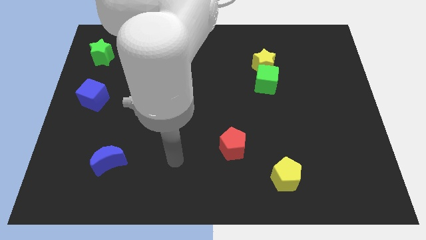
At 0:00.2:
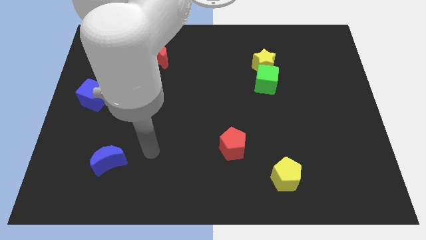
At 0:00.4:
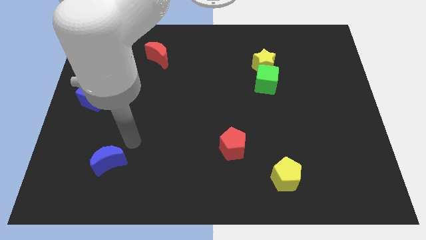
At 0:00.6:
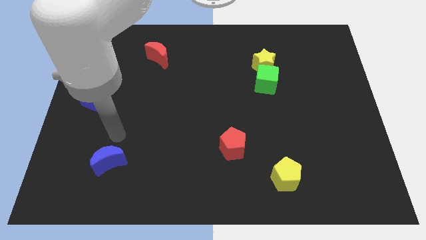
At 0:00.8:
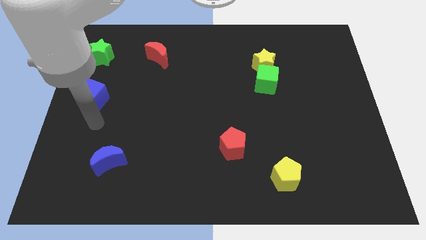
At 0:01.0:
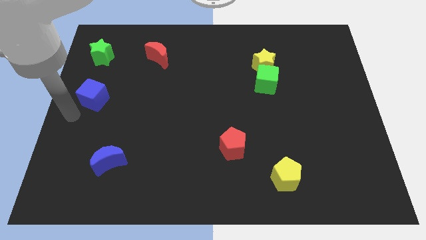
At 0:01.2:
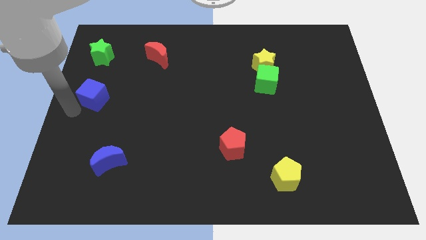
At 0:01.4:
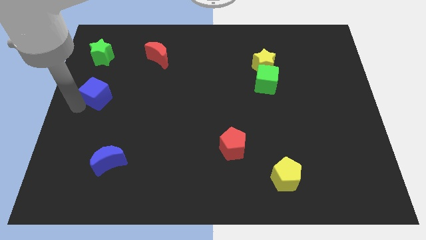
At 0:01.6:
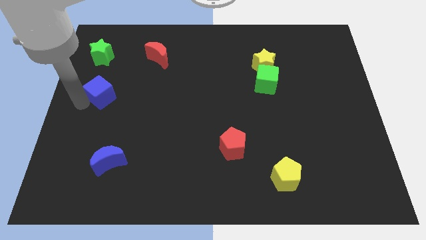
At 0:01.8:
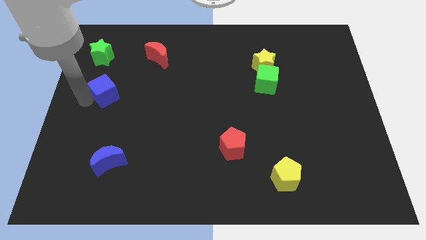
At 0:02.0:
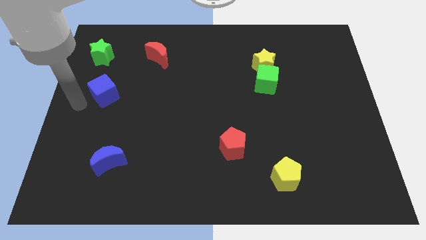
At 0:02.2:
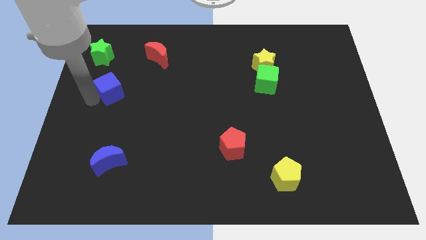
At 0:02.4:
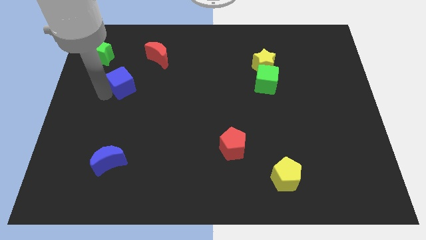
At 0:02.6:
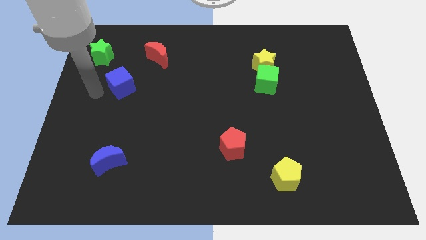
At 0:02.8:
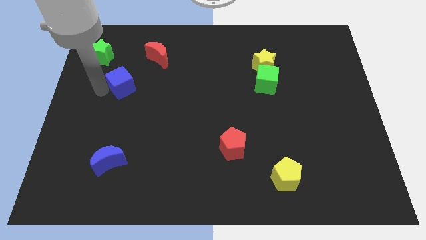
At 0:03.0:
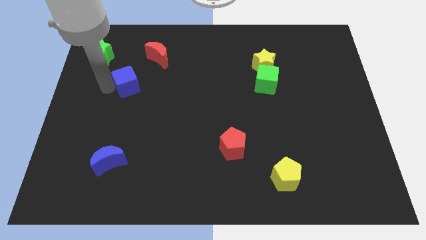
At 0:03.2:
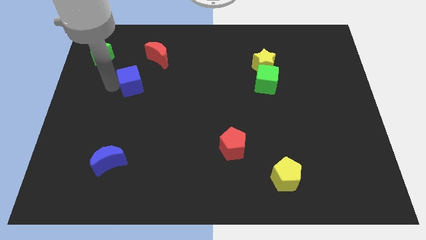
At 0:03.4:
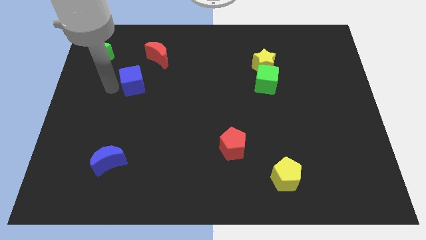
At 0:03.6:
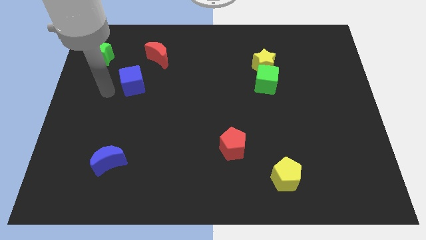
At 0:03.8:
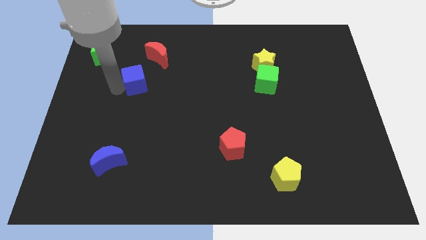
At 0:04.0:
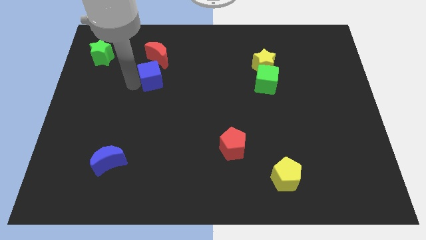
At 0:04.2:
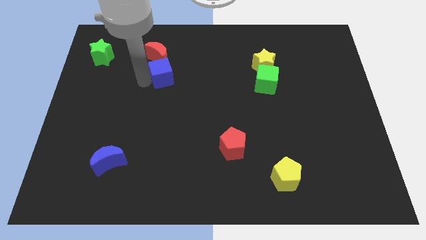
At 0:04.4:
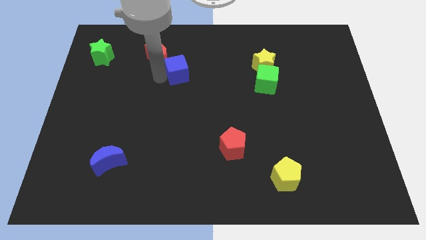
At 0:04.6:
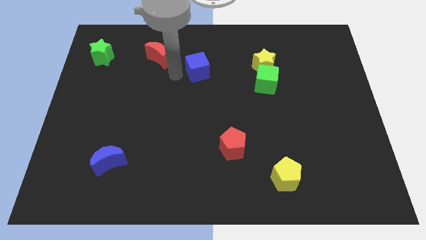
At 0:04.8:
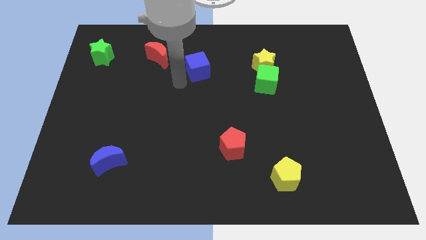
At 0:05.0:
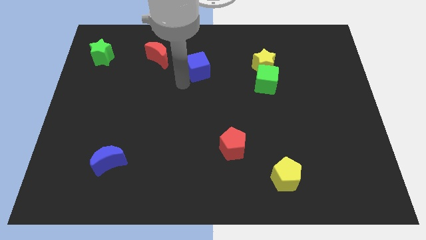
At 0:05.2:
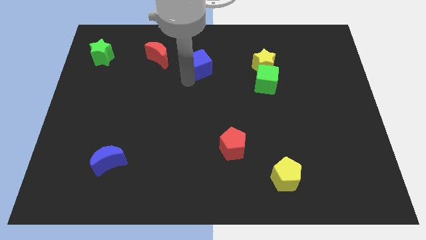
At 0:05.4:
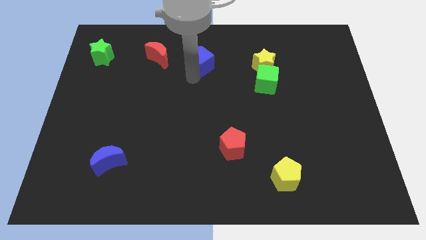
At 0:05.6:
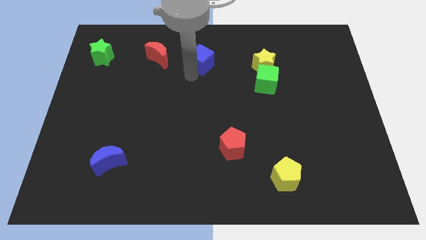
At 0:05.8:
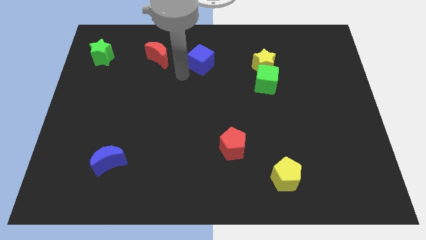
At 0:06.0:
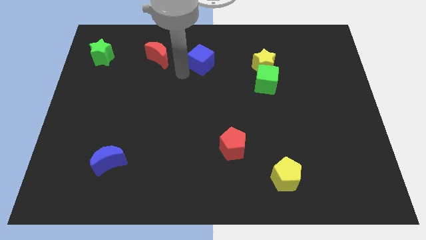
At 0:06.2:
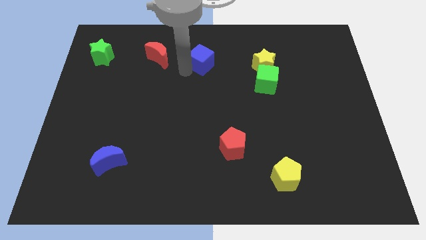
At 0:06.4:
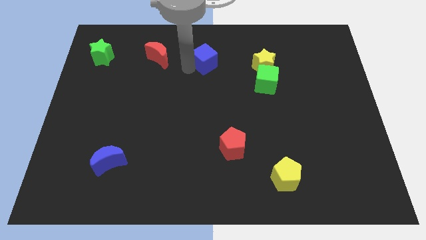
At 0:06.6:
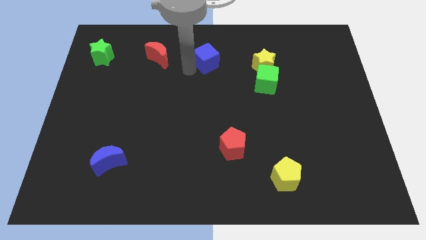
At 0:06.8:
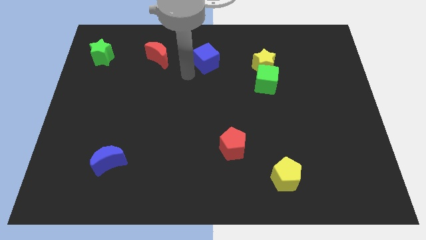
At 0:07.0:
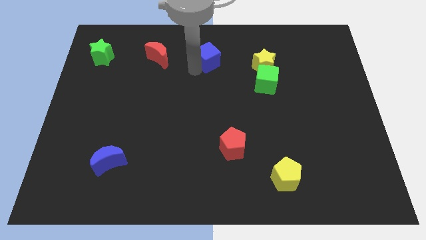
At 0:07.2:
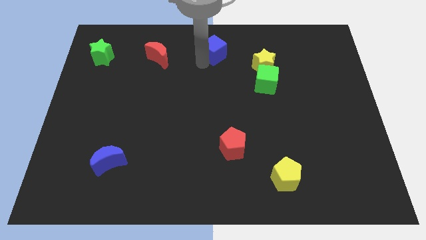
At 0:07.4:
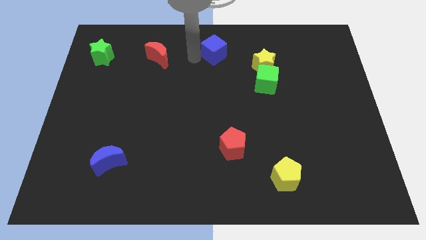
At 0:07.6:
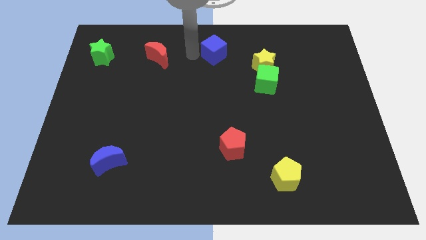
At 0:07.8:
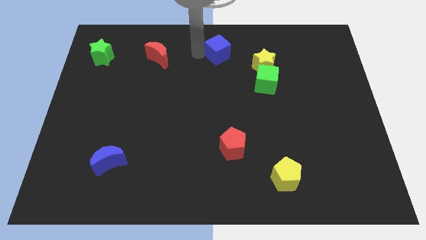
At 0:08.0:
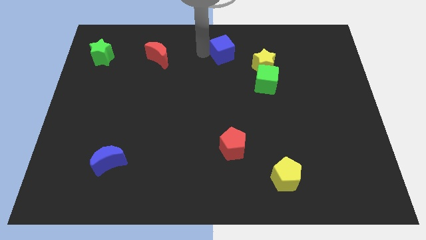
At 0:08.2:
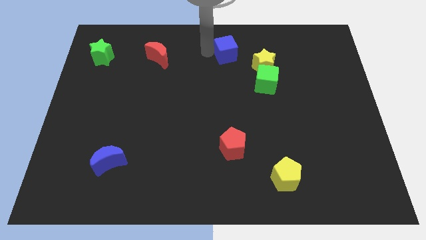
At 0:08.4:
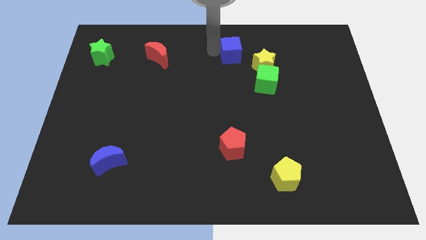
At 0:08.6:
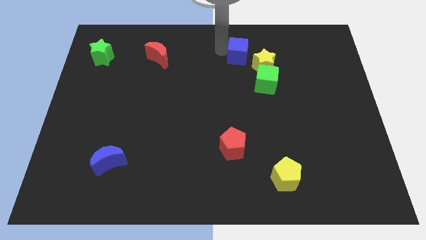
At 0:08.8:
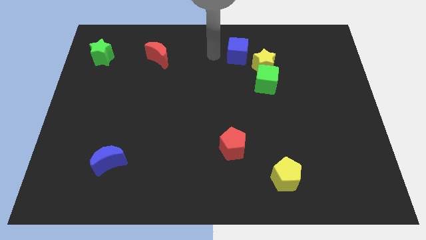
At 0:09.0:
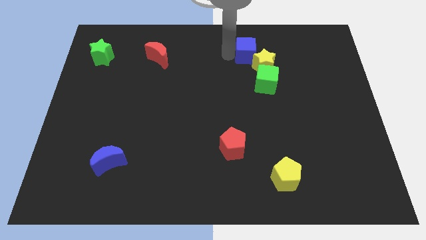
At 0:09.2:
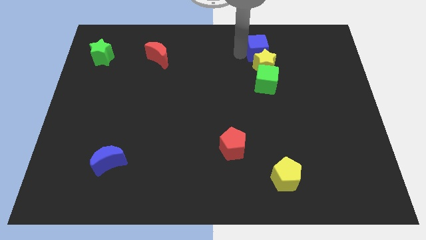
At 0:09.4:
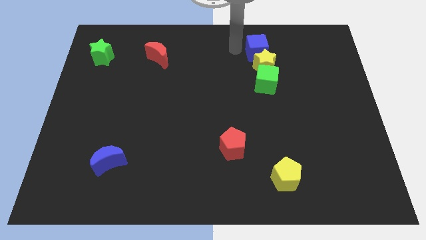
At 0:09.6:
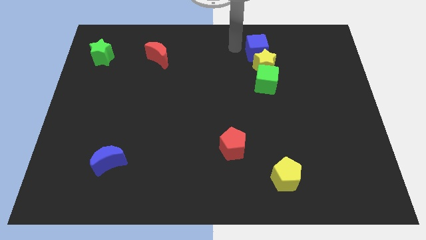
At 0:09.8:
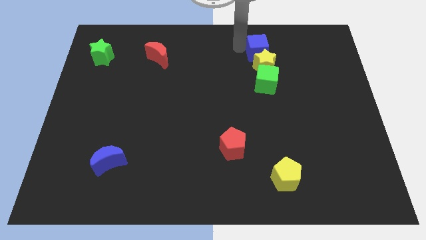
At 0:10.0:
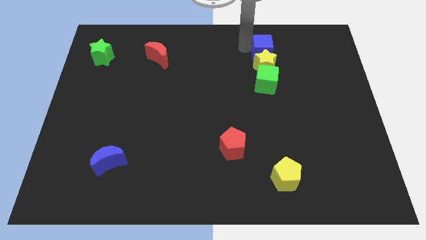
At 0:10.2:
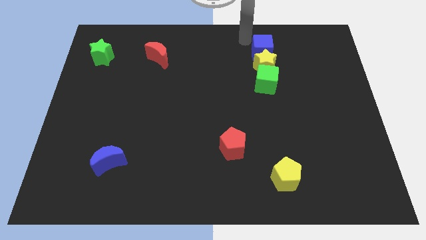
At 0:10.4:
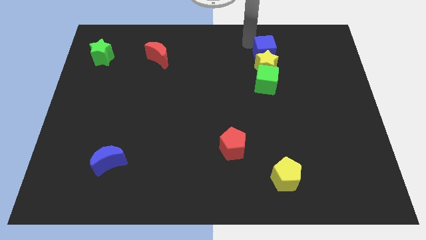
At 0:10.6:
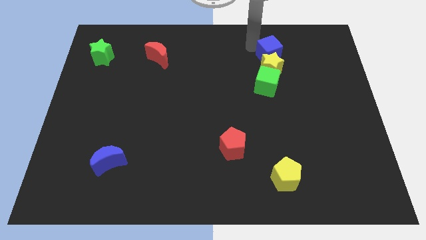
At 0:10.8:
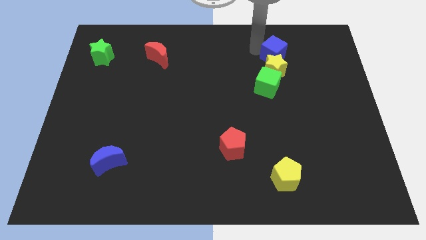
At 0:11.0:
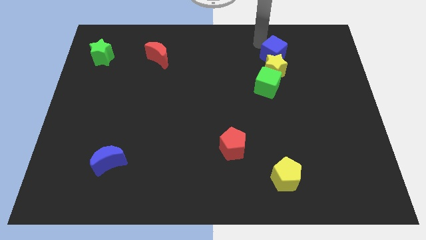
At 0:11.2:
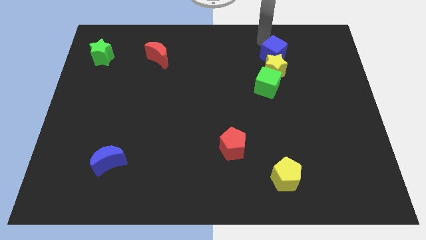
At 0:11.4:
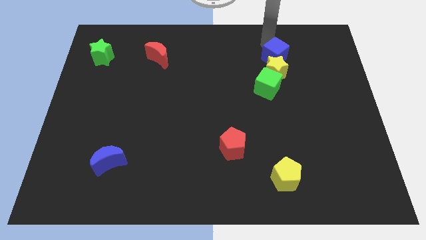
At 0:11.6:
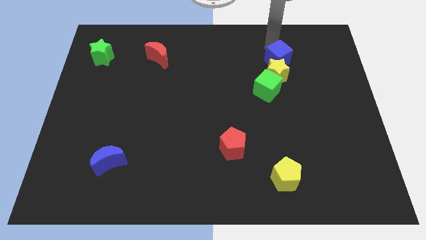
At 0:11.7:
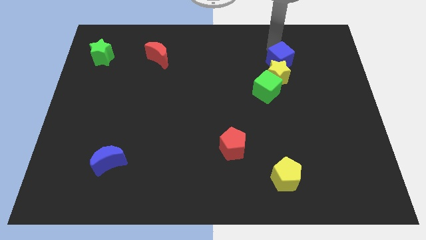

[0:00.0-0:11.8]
move the blue cube to the top right side of the green cube

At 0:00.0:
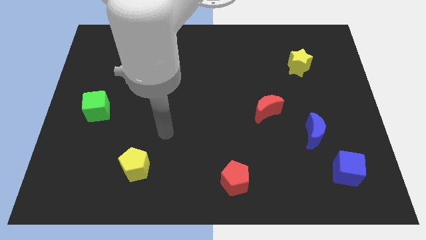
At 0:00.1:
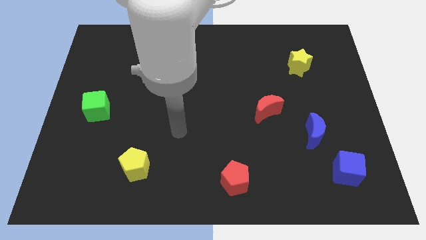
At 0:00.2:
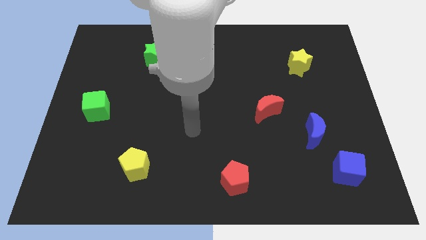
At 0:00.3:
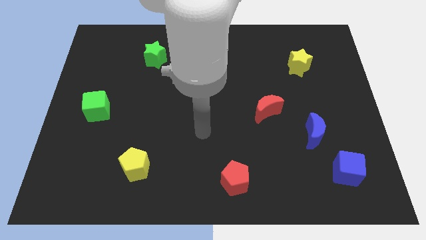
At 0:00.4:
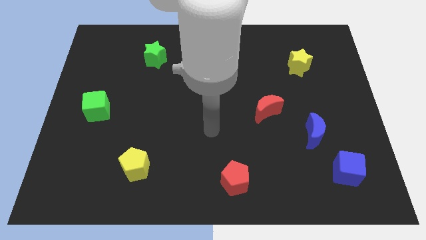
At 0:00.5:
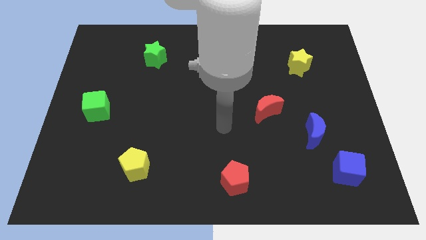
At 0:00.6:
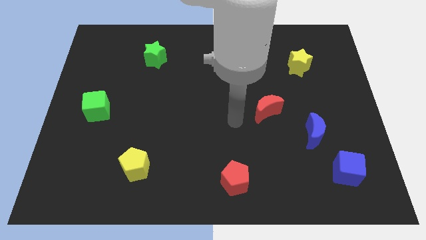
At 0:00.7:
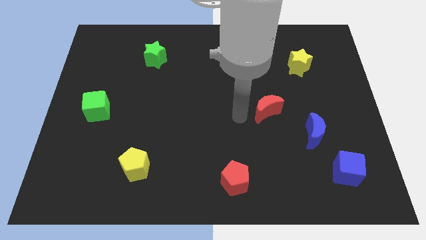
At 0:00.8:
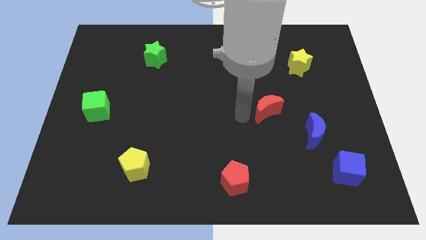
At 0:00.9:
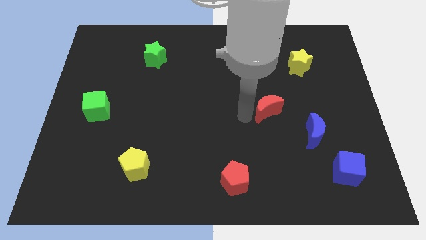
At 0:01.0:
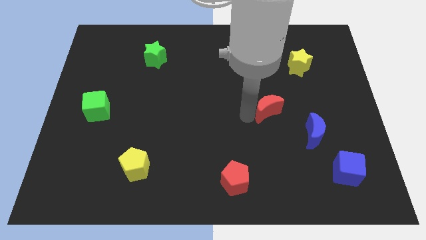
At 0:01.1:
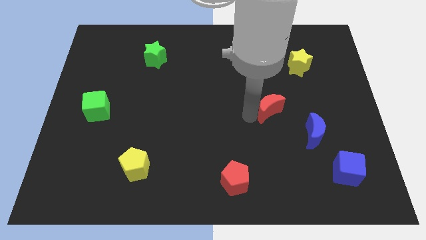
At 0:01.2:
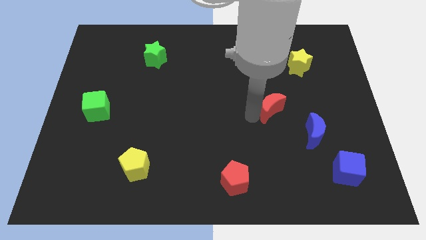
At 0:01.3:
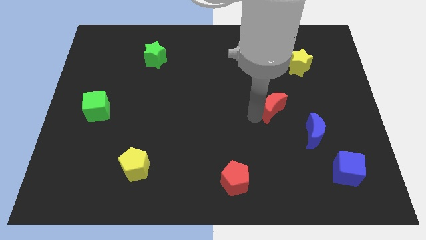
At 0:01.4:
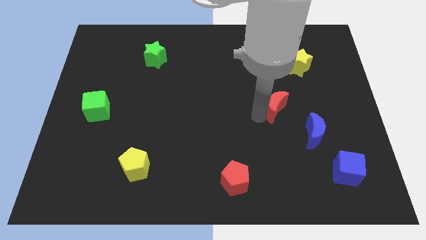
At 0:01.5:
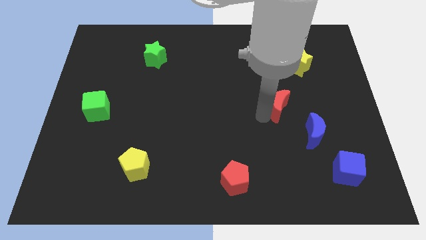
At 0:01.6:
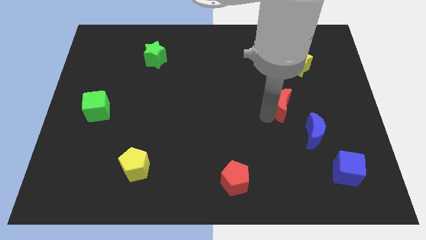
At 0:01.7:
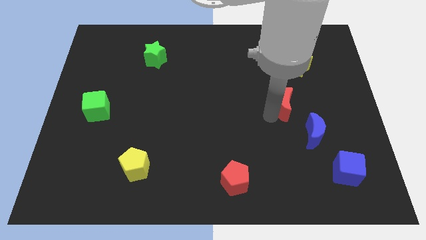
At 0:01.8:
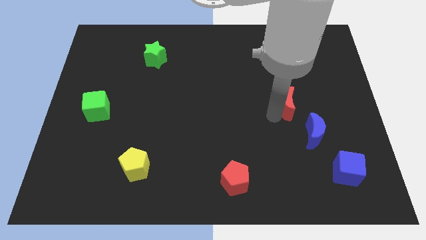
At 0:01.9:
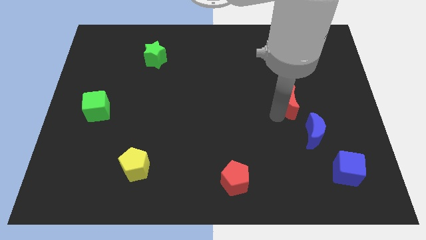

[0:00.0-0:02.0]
push the red moon to the top of the blue moon
